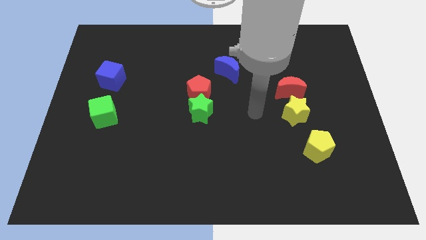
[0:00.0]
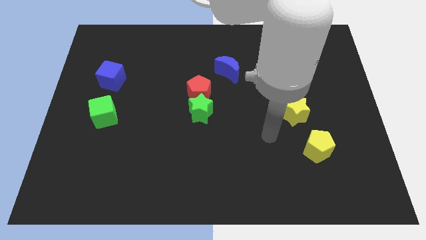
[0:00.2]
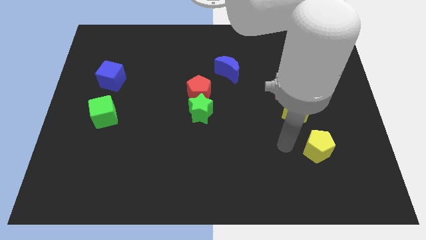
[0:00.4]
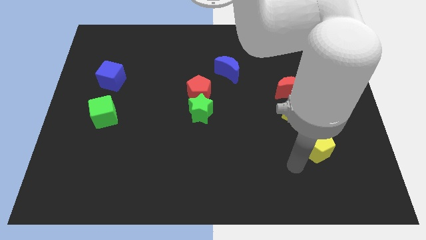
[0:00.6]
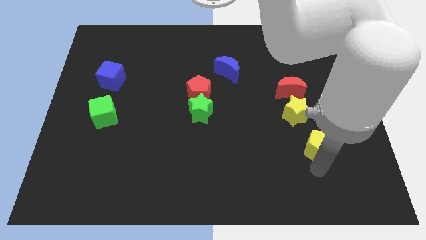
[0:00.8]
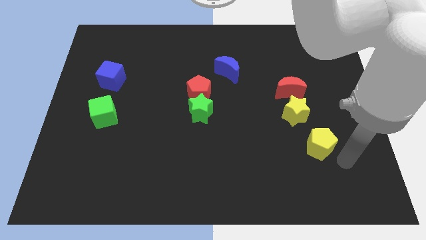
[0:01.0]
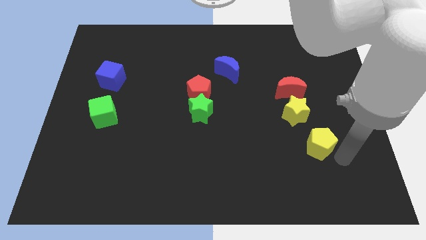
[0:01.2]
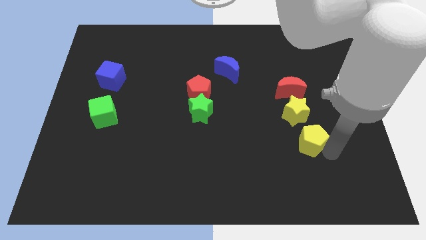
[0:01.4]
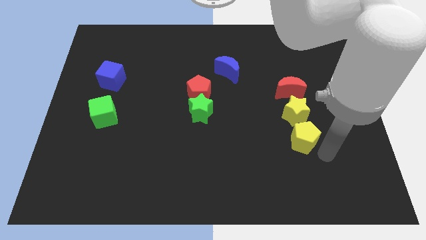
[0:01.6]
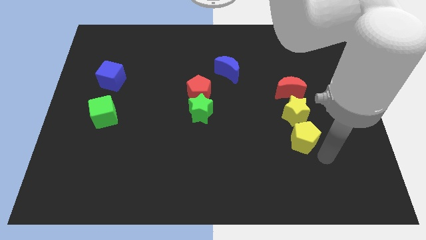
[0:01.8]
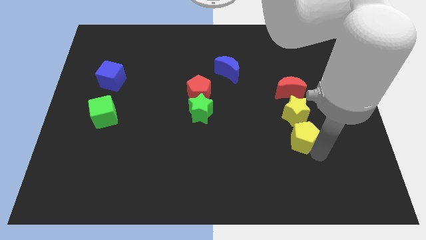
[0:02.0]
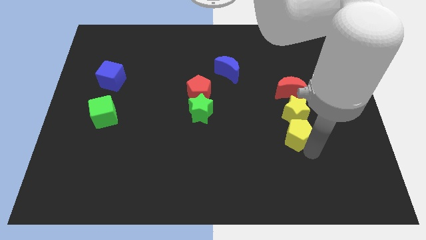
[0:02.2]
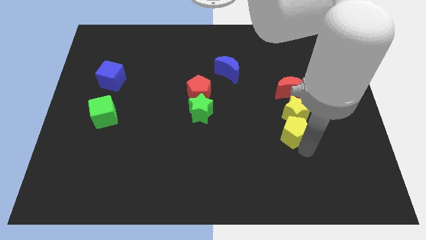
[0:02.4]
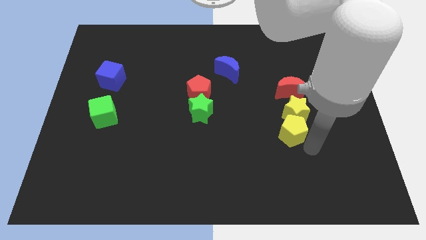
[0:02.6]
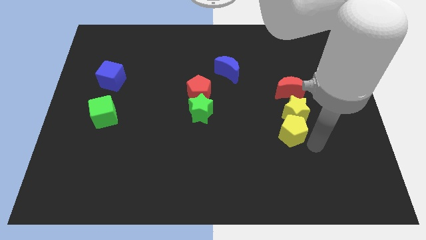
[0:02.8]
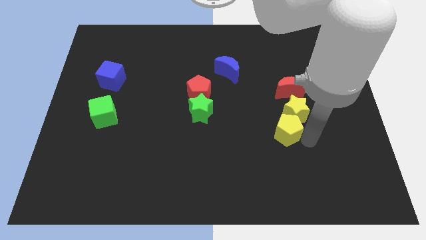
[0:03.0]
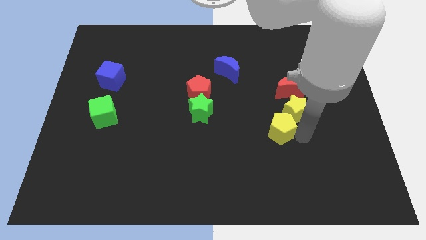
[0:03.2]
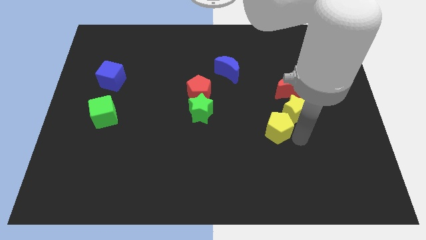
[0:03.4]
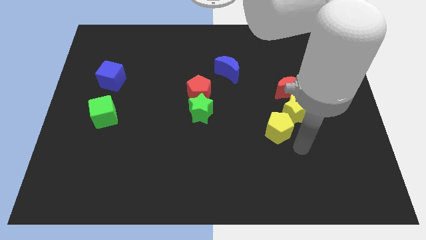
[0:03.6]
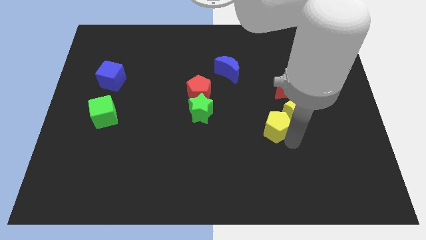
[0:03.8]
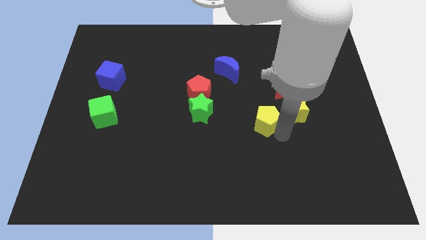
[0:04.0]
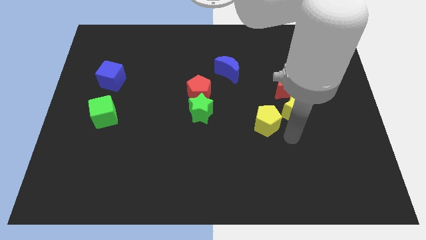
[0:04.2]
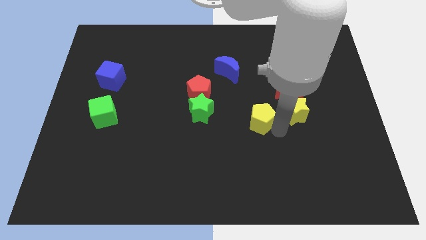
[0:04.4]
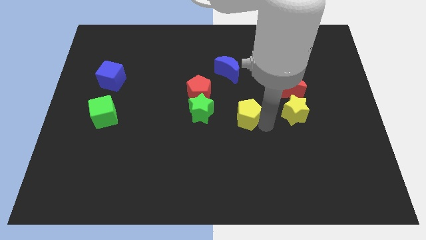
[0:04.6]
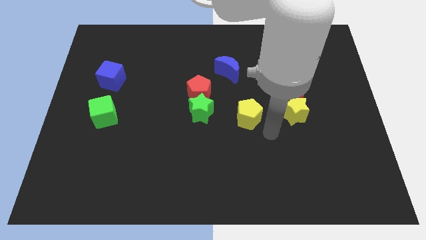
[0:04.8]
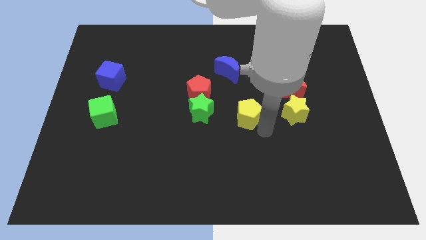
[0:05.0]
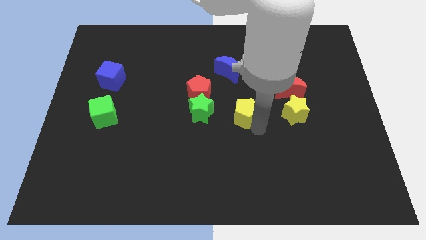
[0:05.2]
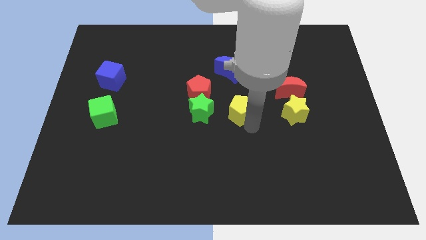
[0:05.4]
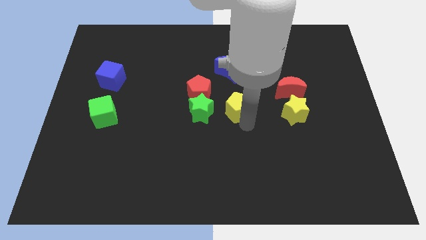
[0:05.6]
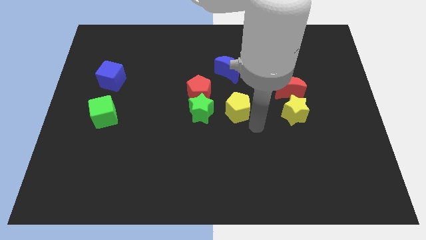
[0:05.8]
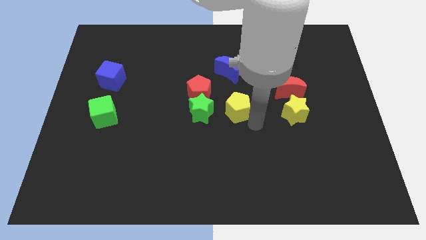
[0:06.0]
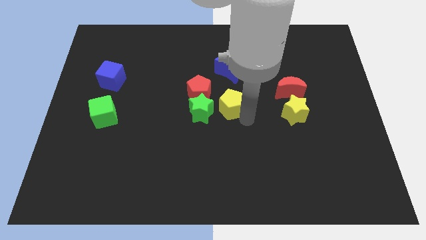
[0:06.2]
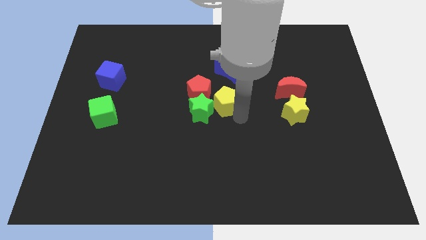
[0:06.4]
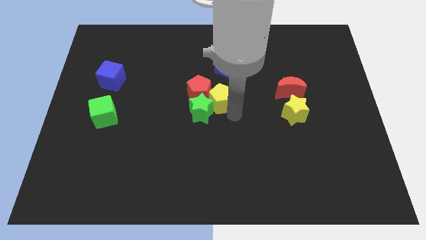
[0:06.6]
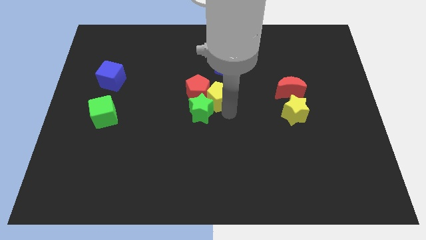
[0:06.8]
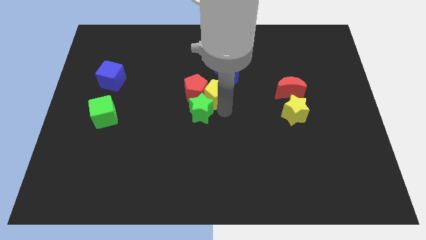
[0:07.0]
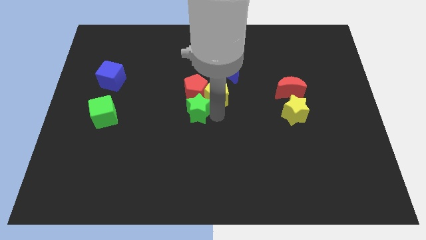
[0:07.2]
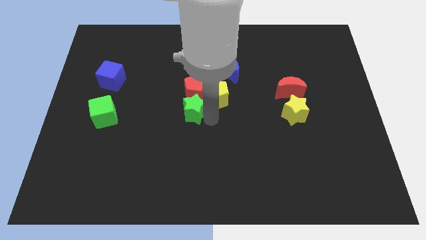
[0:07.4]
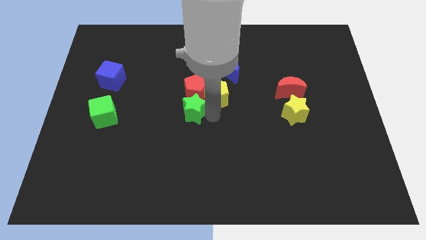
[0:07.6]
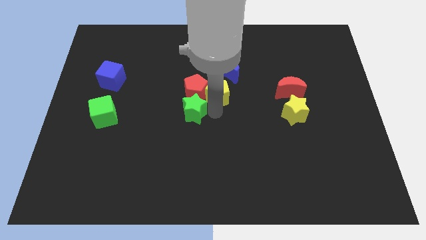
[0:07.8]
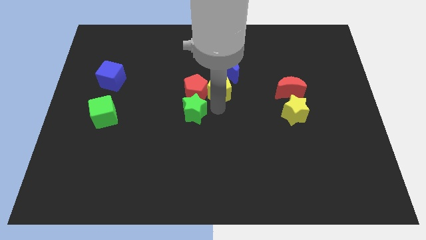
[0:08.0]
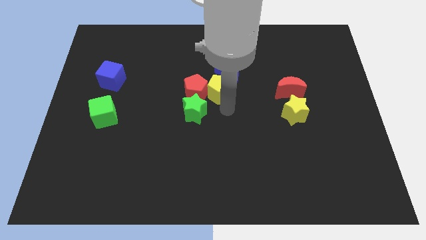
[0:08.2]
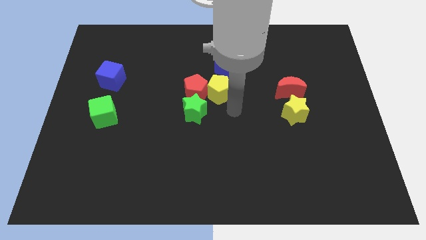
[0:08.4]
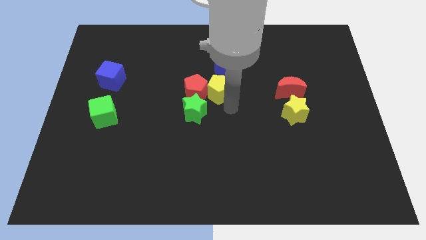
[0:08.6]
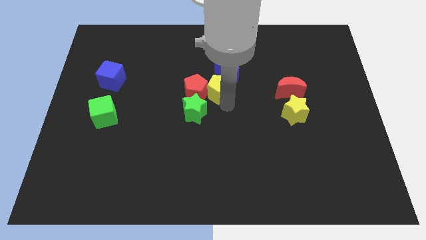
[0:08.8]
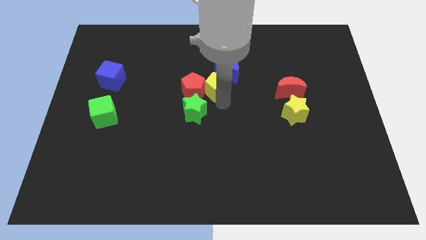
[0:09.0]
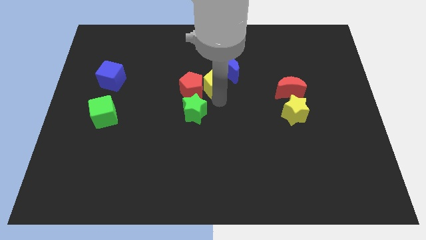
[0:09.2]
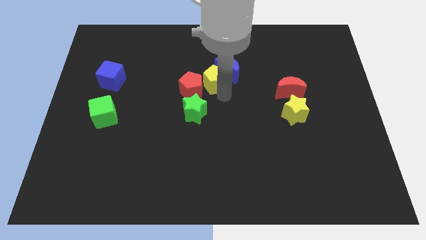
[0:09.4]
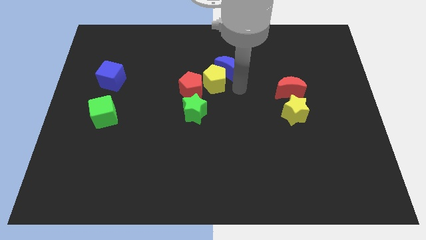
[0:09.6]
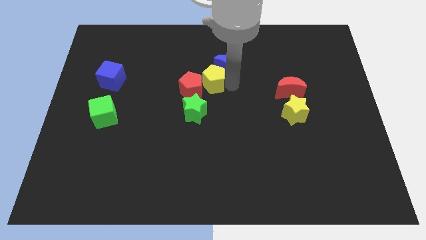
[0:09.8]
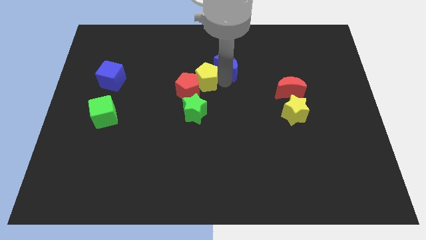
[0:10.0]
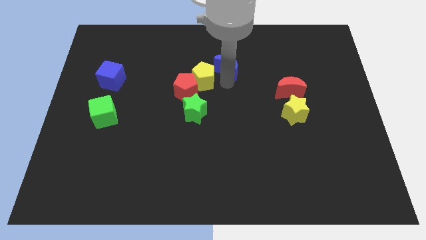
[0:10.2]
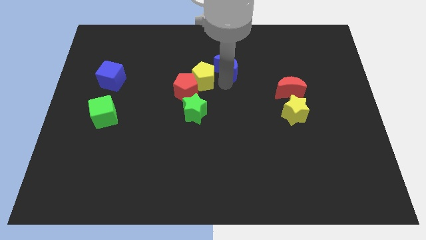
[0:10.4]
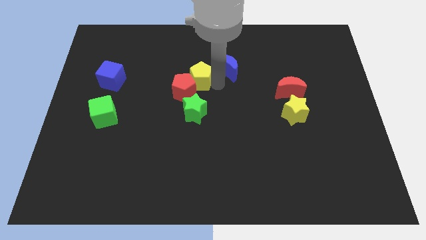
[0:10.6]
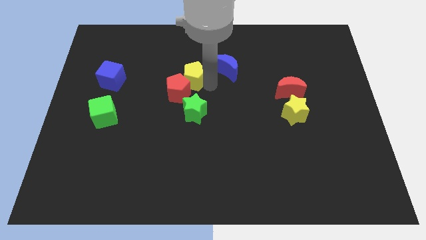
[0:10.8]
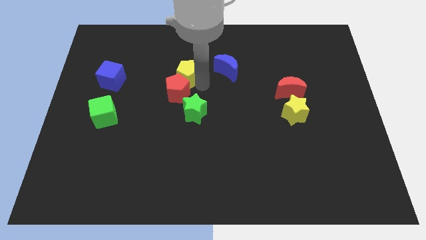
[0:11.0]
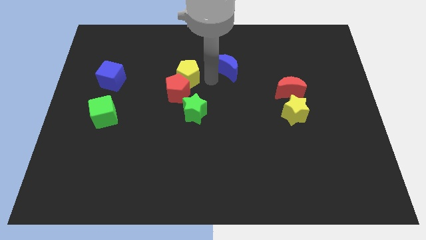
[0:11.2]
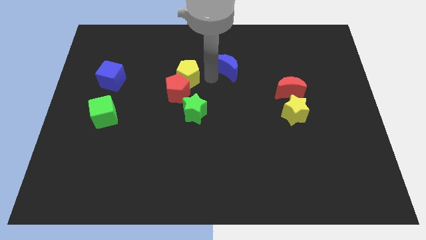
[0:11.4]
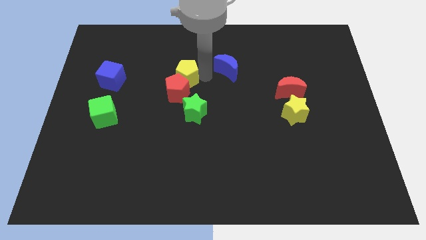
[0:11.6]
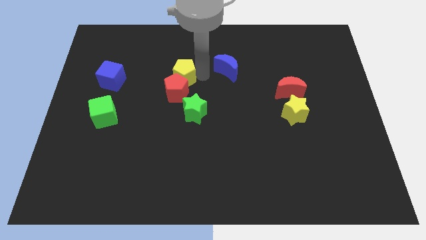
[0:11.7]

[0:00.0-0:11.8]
slide the yellow pentagon to the top left side of the red pentagon

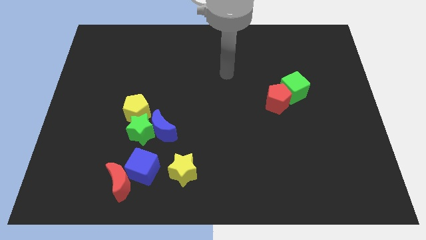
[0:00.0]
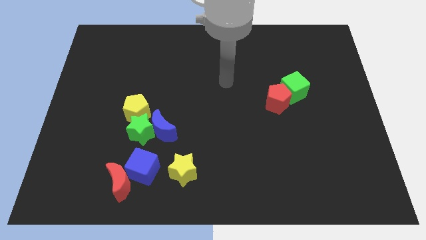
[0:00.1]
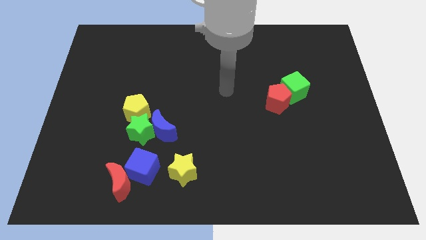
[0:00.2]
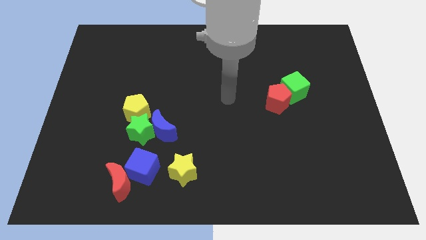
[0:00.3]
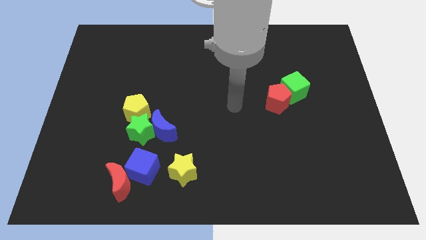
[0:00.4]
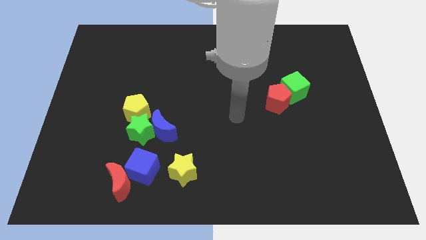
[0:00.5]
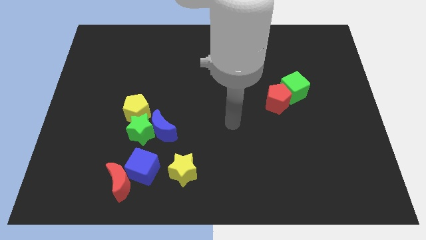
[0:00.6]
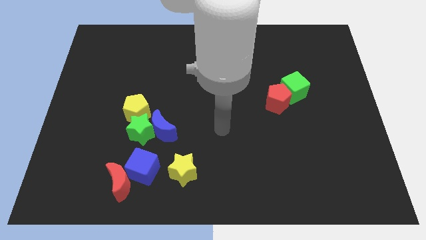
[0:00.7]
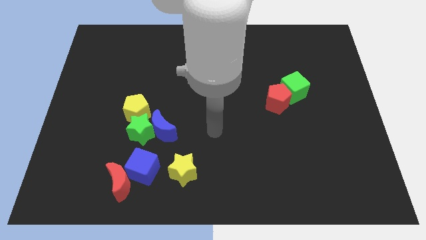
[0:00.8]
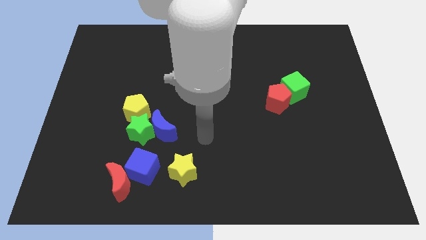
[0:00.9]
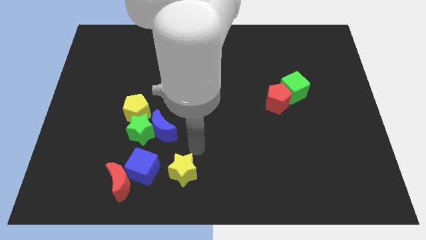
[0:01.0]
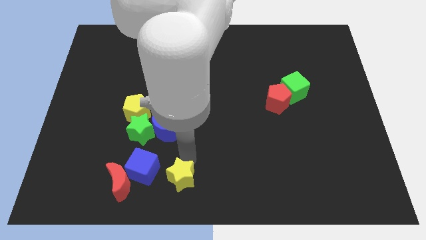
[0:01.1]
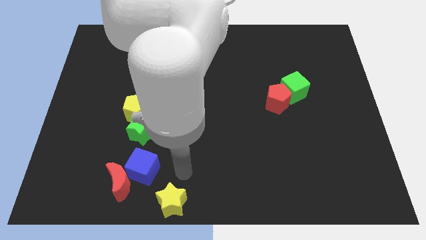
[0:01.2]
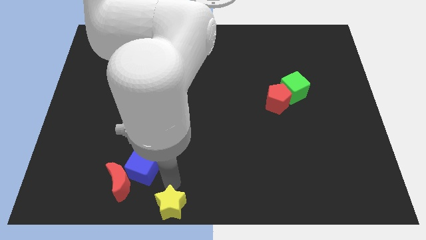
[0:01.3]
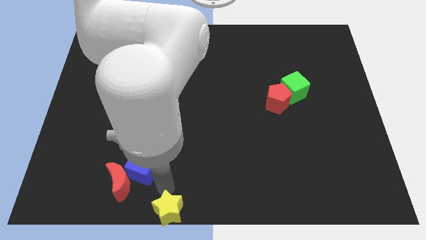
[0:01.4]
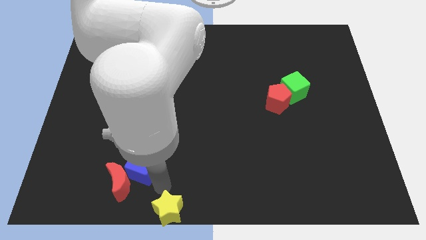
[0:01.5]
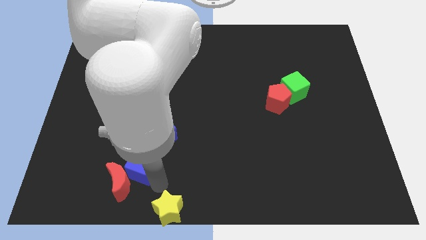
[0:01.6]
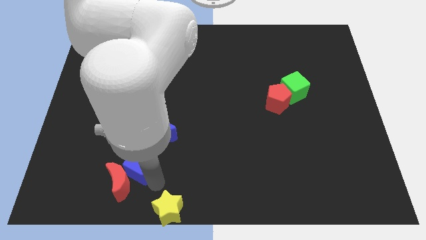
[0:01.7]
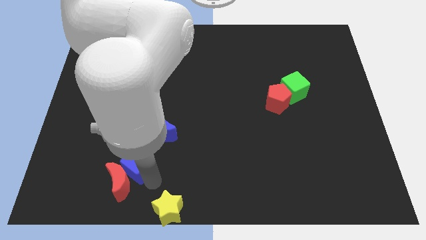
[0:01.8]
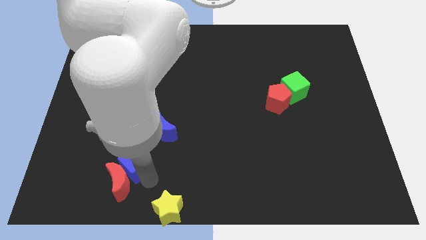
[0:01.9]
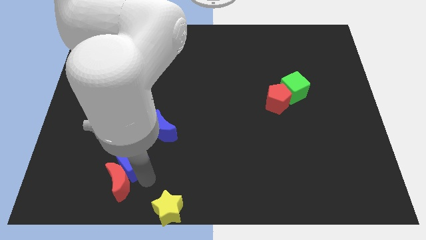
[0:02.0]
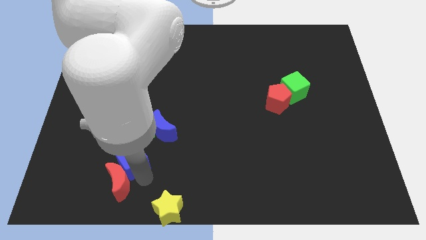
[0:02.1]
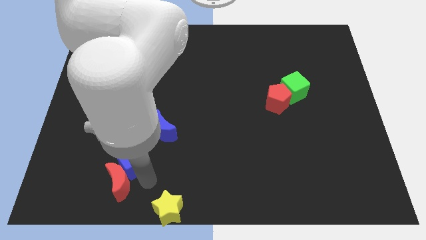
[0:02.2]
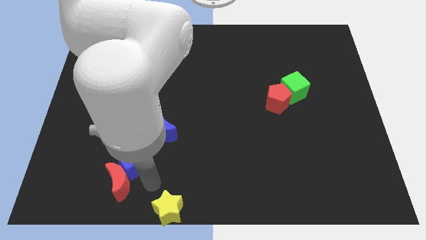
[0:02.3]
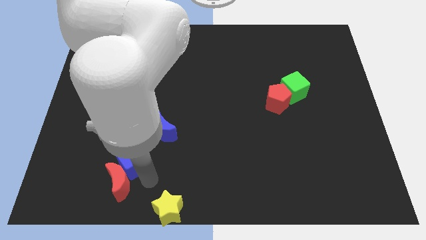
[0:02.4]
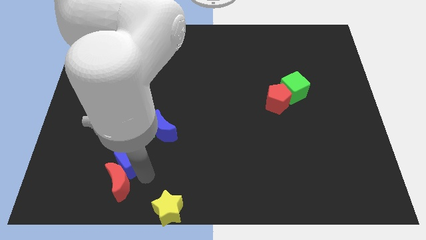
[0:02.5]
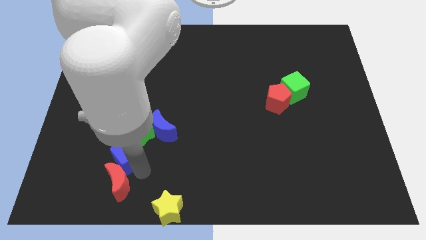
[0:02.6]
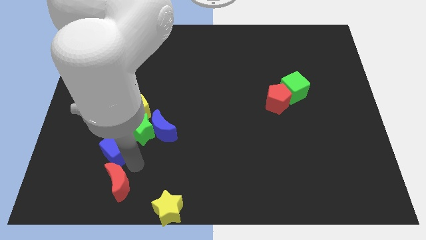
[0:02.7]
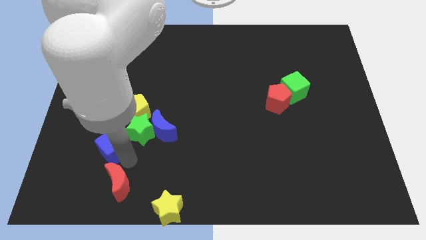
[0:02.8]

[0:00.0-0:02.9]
put the blue cube diagonally down and to the left of the yellow pentagon
